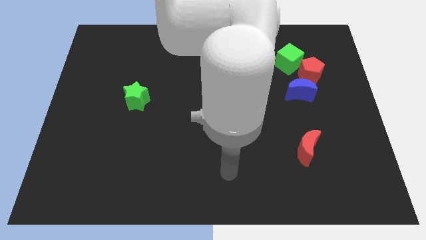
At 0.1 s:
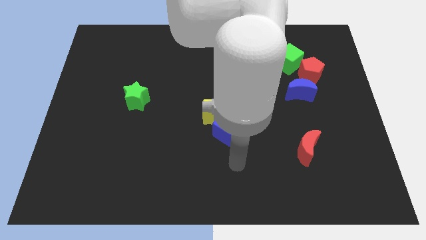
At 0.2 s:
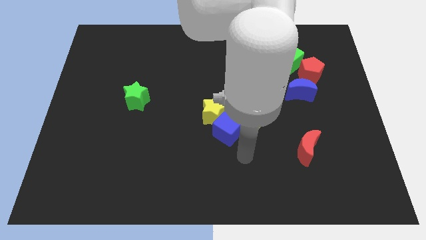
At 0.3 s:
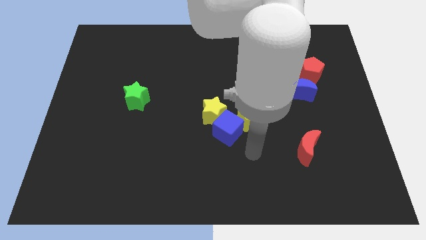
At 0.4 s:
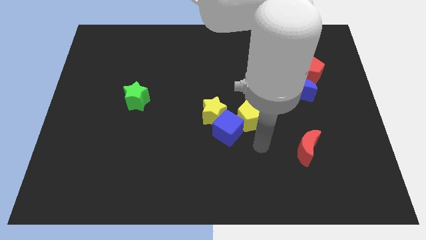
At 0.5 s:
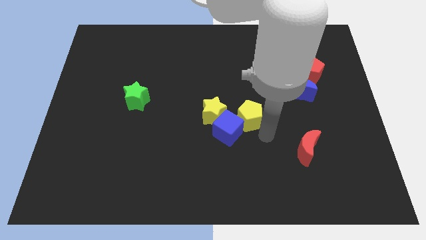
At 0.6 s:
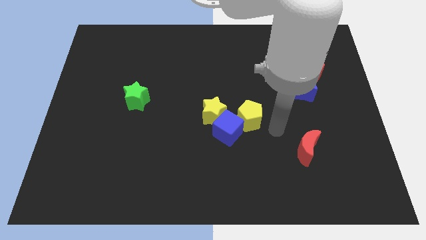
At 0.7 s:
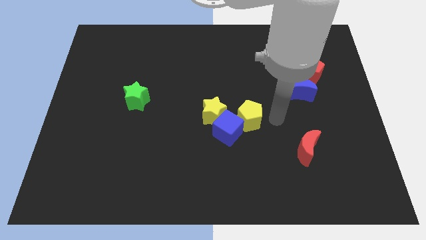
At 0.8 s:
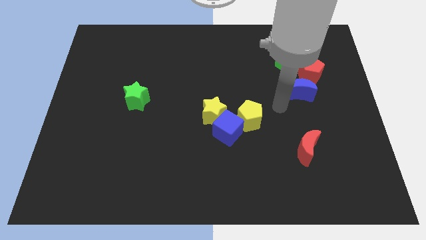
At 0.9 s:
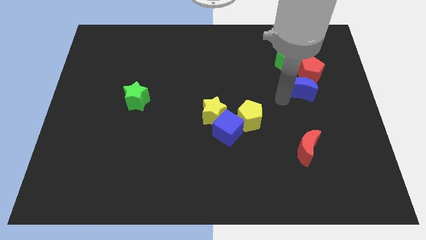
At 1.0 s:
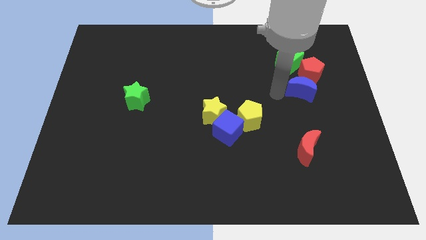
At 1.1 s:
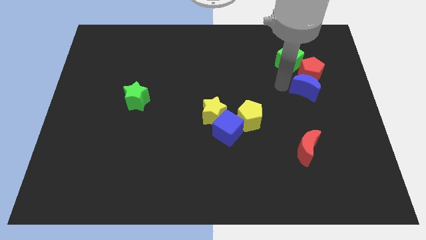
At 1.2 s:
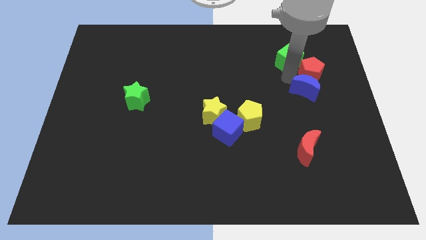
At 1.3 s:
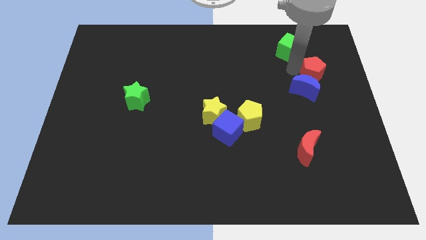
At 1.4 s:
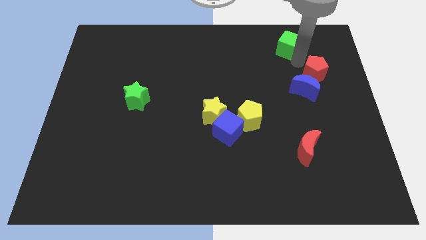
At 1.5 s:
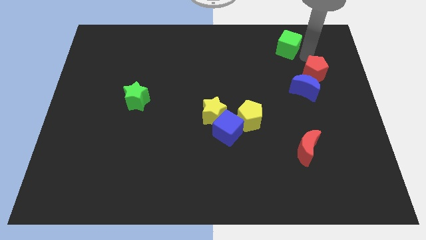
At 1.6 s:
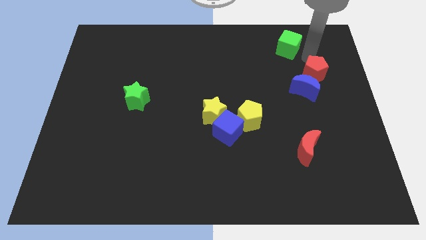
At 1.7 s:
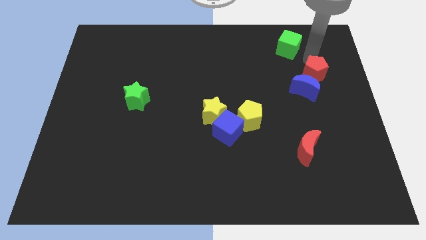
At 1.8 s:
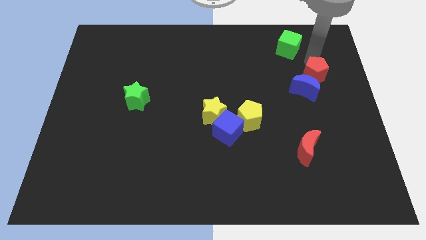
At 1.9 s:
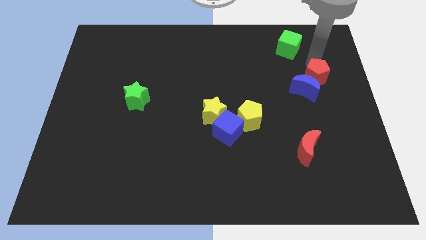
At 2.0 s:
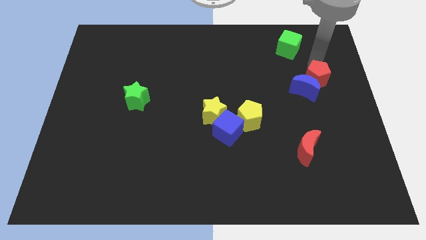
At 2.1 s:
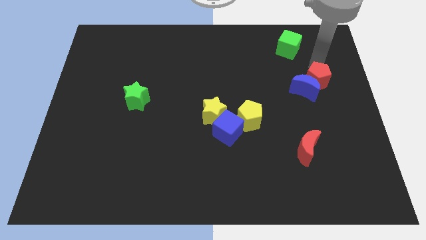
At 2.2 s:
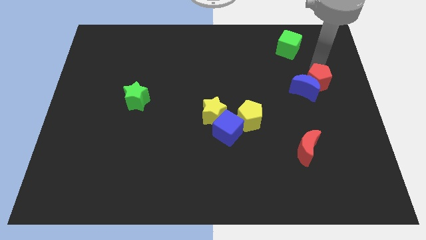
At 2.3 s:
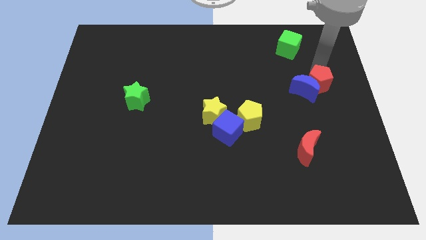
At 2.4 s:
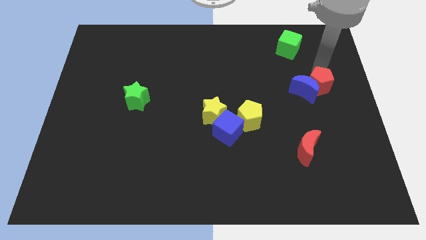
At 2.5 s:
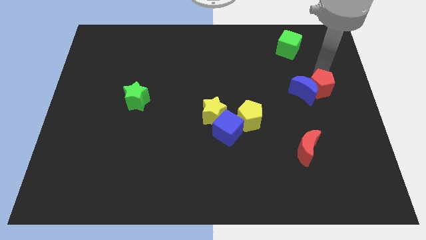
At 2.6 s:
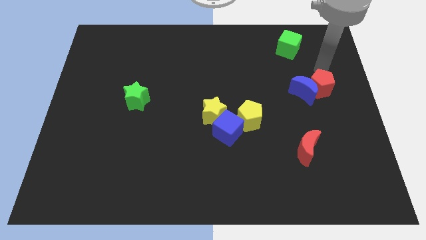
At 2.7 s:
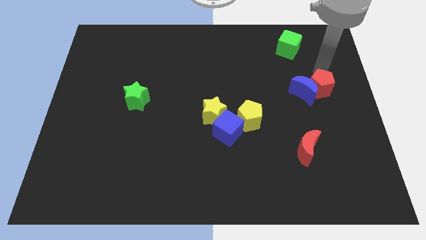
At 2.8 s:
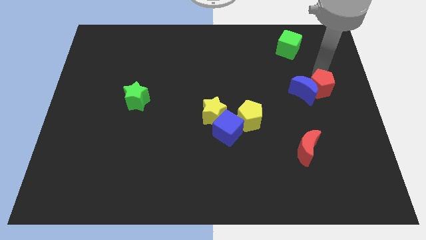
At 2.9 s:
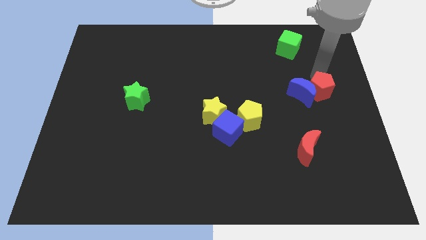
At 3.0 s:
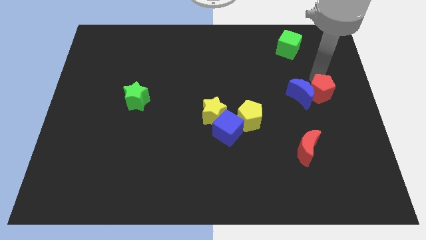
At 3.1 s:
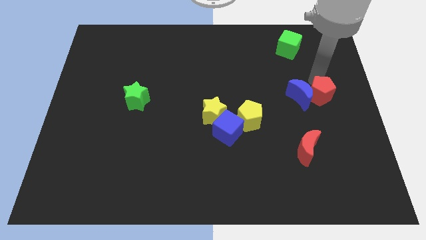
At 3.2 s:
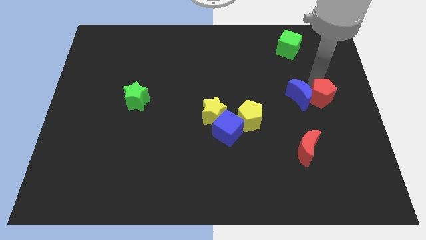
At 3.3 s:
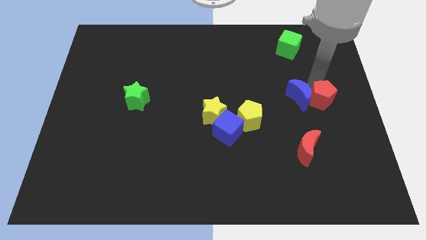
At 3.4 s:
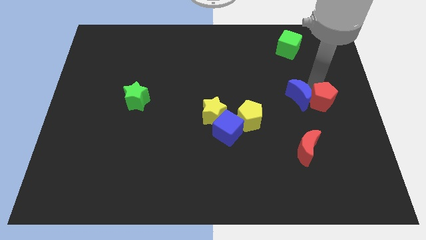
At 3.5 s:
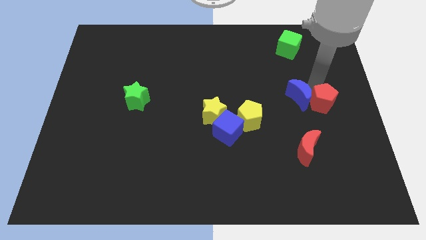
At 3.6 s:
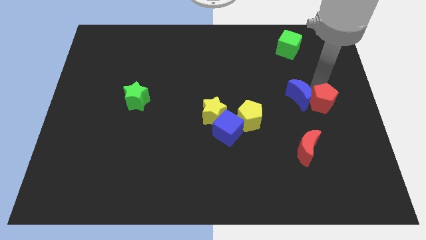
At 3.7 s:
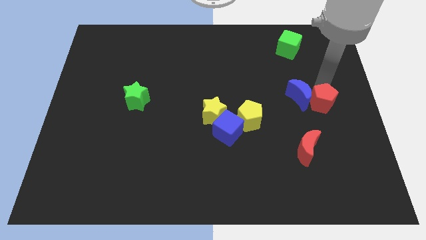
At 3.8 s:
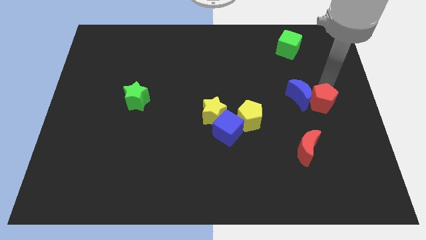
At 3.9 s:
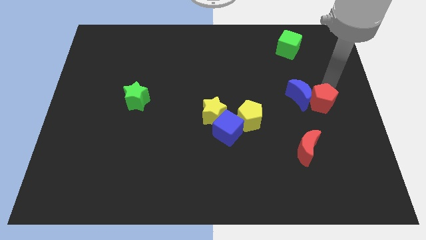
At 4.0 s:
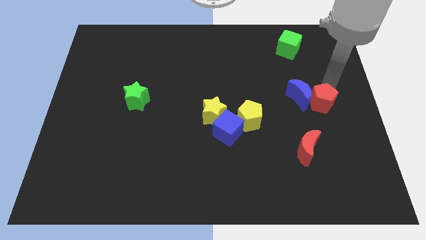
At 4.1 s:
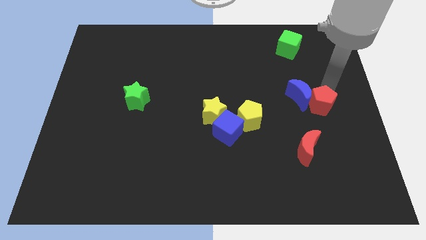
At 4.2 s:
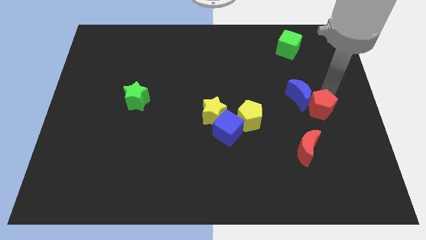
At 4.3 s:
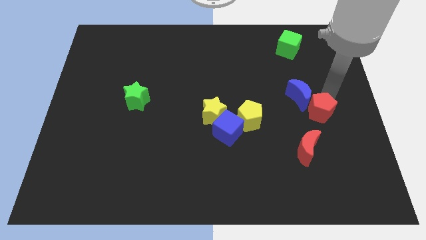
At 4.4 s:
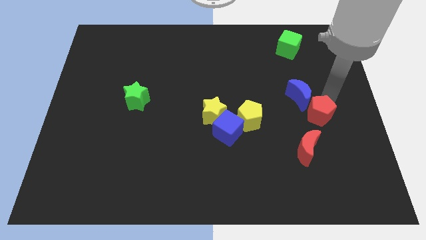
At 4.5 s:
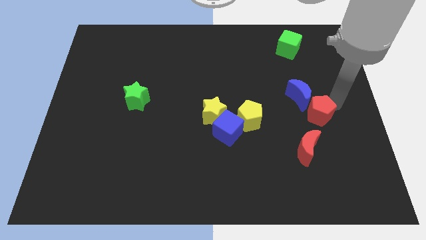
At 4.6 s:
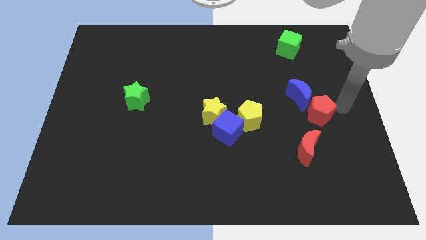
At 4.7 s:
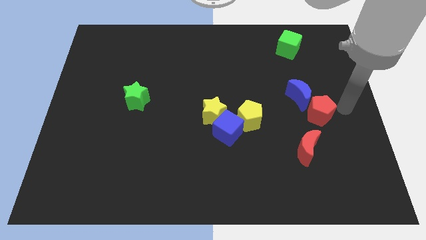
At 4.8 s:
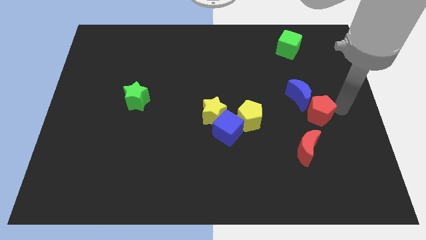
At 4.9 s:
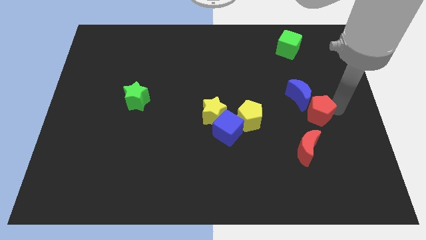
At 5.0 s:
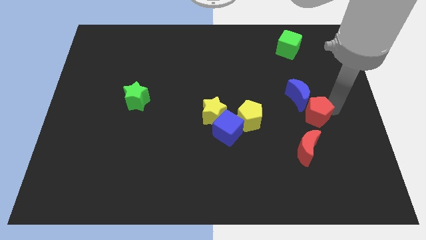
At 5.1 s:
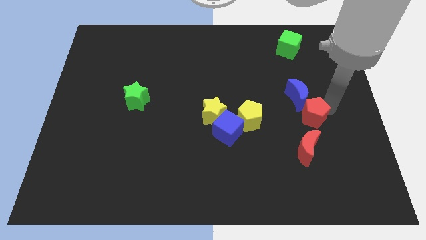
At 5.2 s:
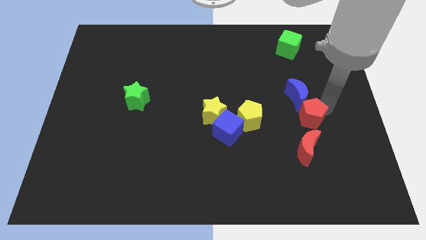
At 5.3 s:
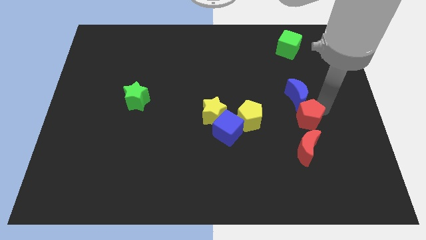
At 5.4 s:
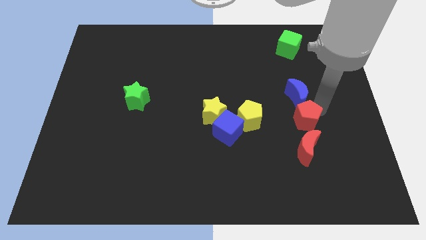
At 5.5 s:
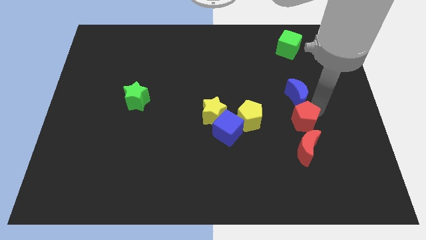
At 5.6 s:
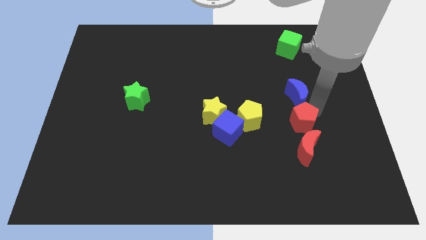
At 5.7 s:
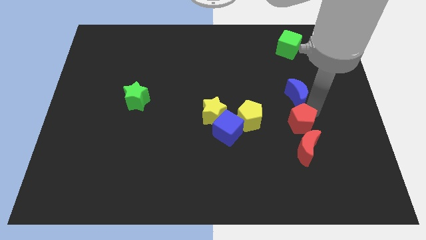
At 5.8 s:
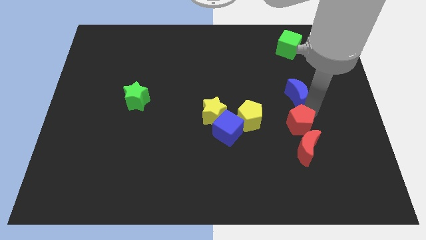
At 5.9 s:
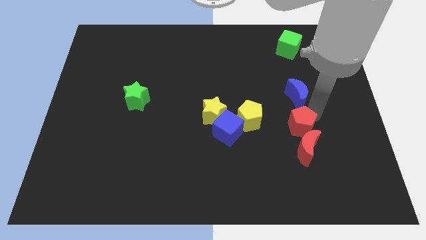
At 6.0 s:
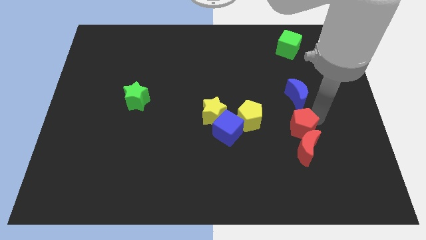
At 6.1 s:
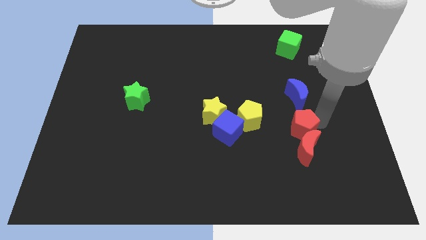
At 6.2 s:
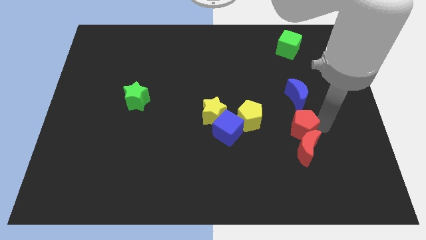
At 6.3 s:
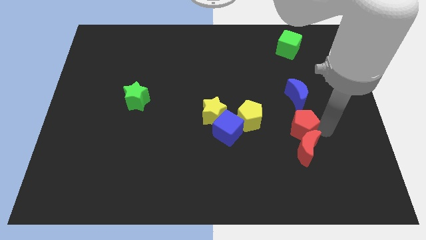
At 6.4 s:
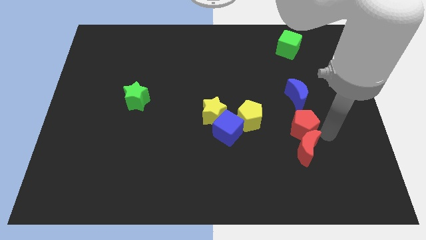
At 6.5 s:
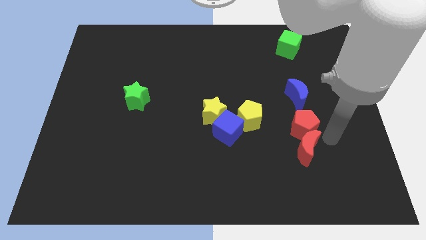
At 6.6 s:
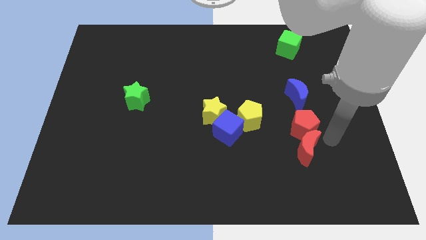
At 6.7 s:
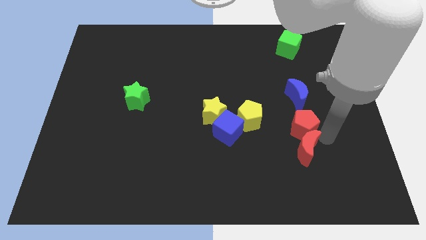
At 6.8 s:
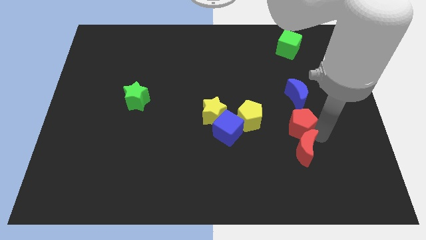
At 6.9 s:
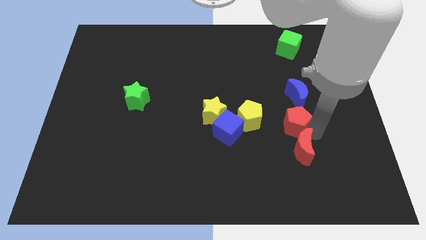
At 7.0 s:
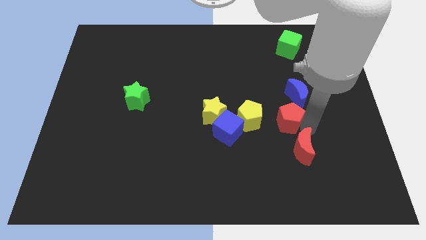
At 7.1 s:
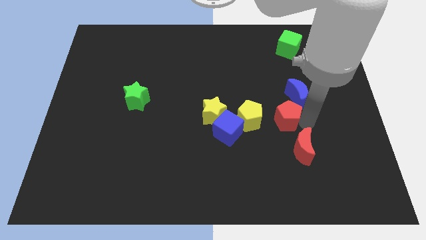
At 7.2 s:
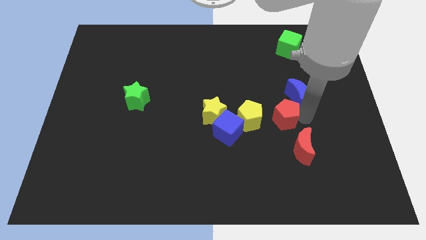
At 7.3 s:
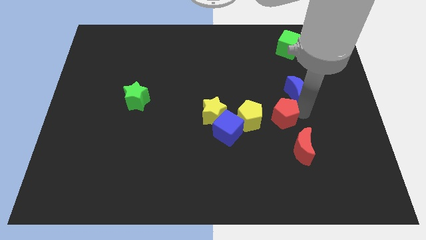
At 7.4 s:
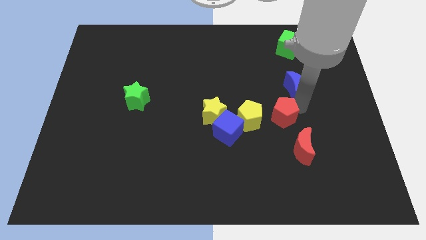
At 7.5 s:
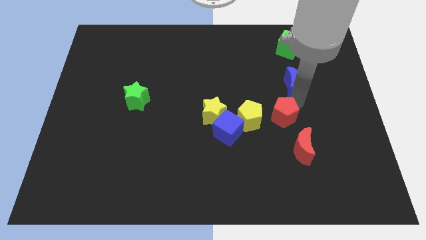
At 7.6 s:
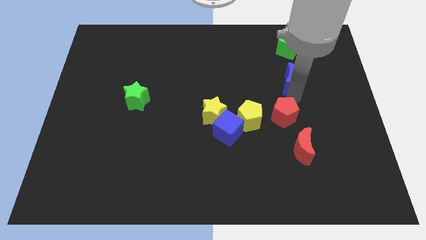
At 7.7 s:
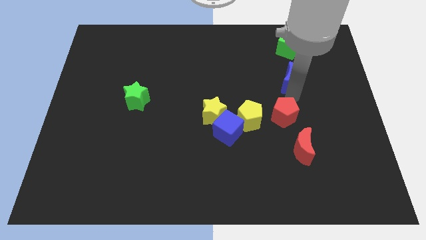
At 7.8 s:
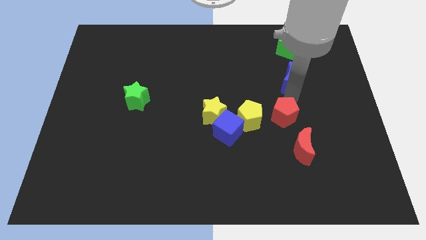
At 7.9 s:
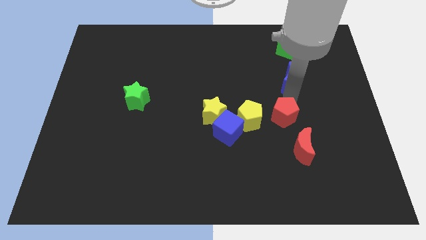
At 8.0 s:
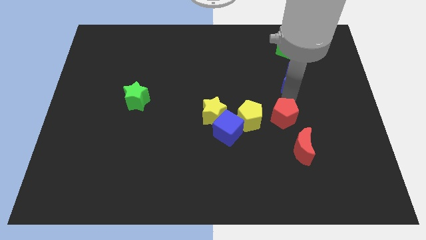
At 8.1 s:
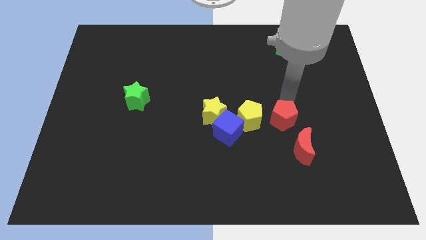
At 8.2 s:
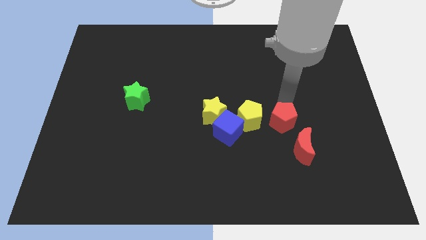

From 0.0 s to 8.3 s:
move the red pentagon to the bottom right side of the yellow pentagon

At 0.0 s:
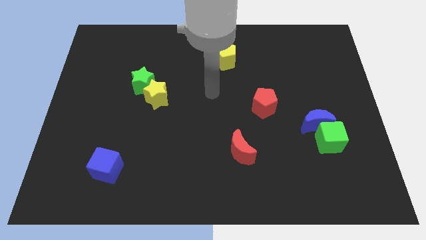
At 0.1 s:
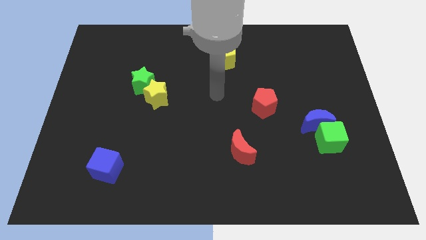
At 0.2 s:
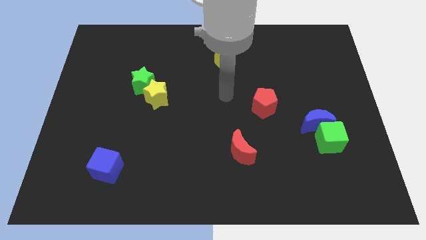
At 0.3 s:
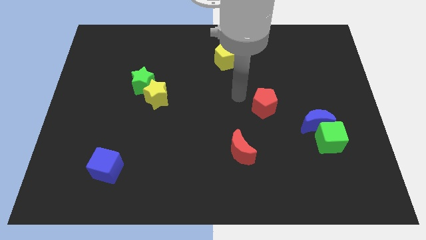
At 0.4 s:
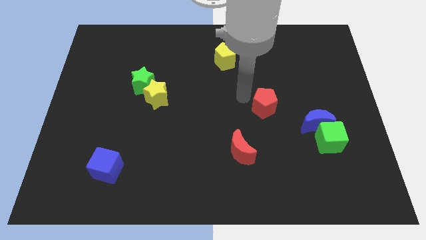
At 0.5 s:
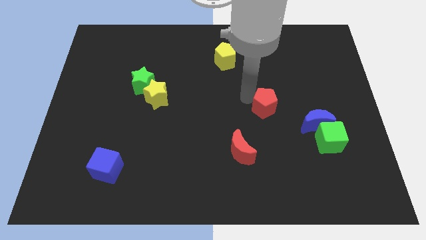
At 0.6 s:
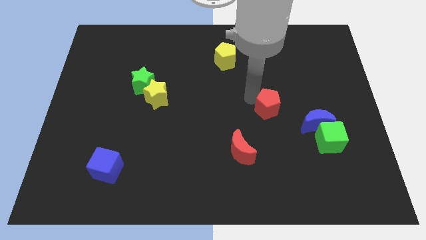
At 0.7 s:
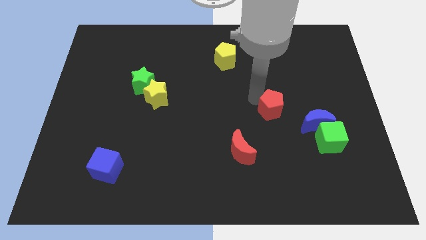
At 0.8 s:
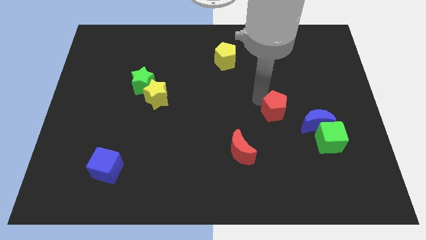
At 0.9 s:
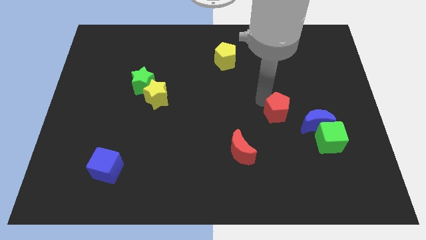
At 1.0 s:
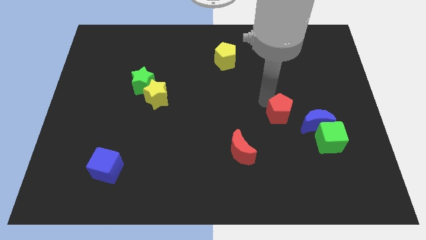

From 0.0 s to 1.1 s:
put the red pentagon to the top left of the green cube
